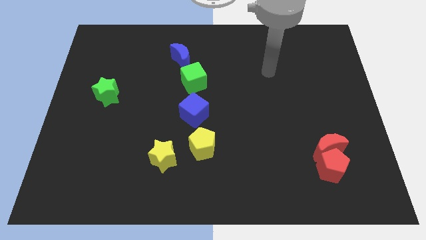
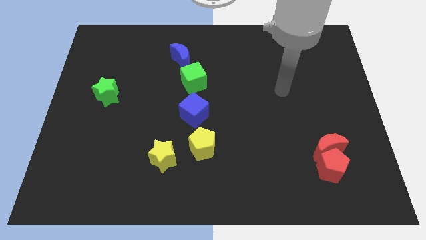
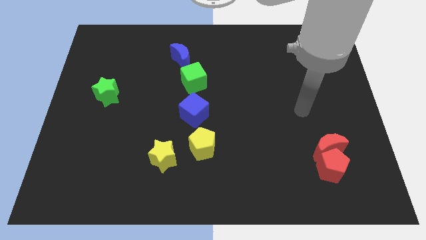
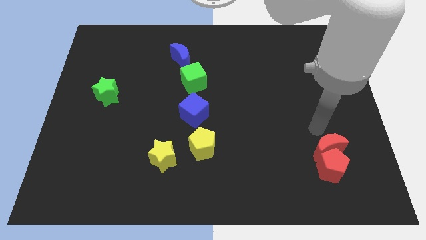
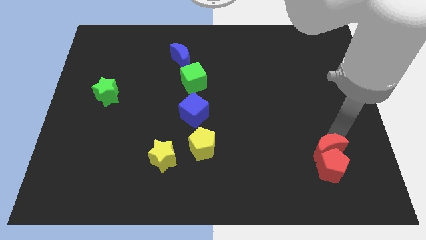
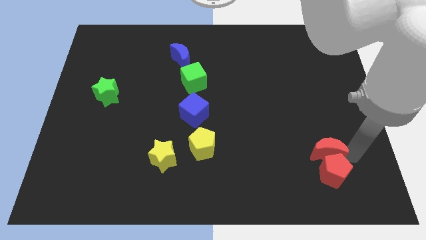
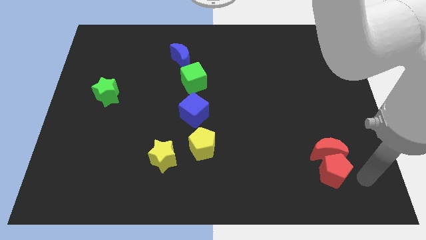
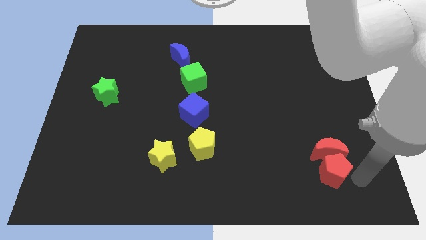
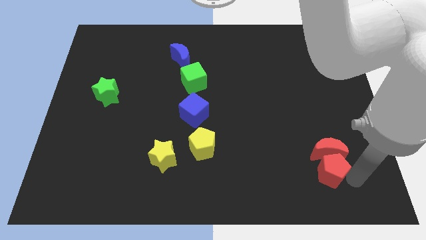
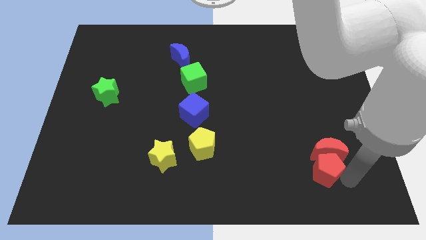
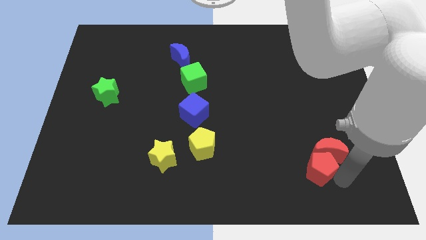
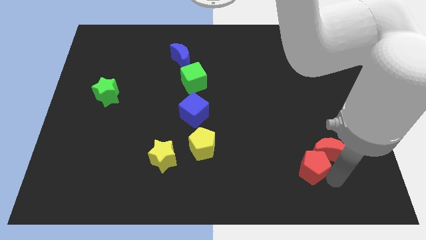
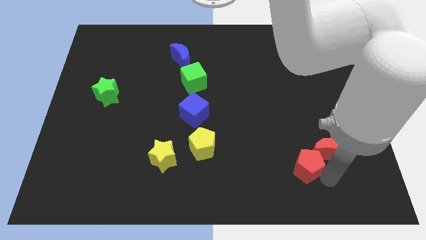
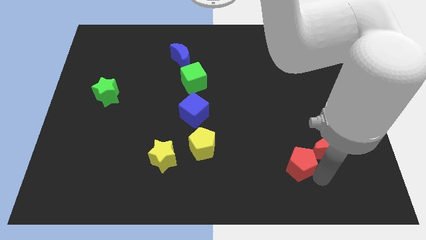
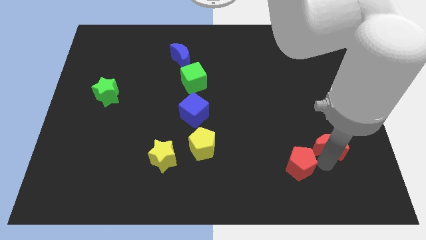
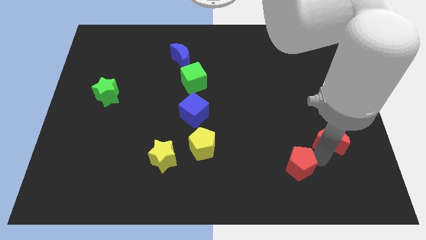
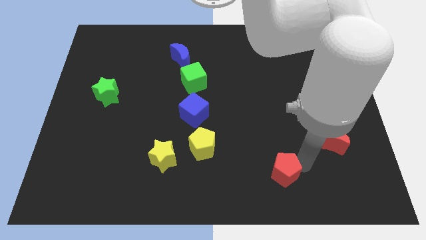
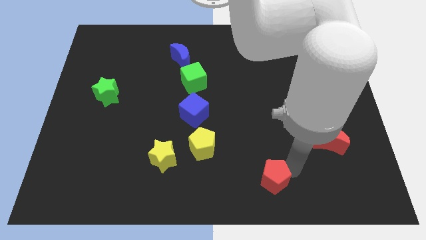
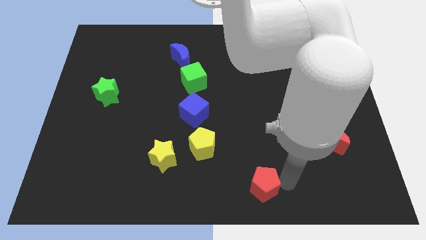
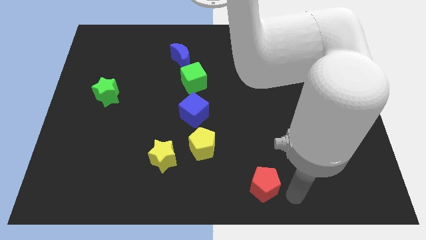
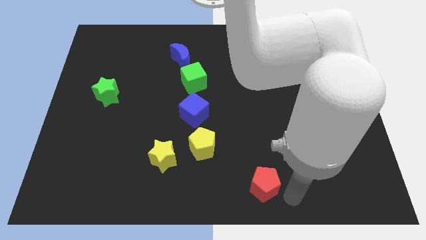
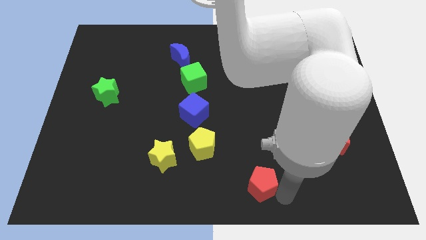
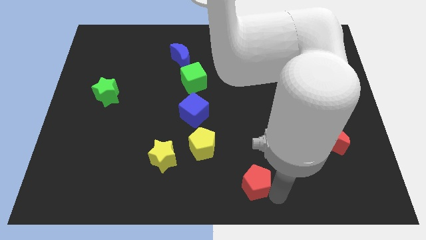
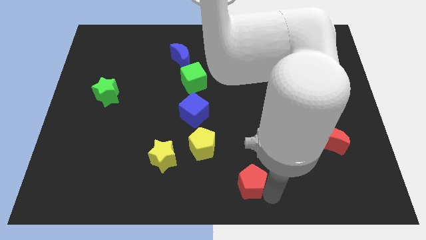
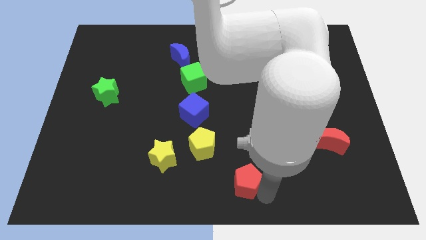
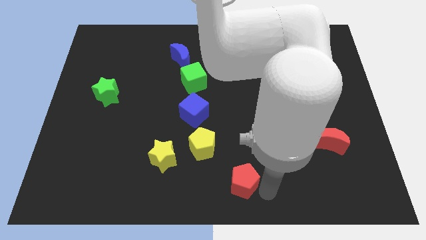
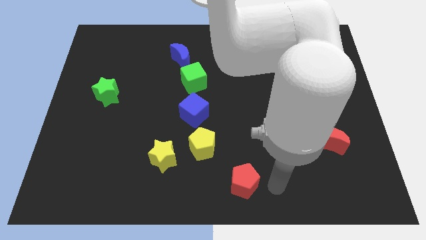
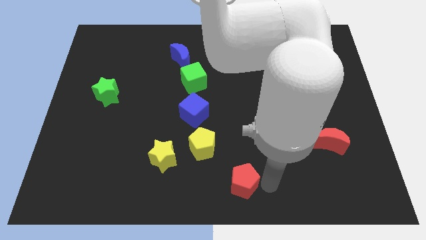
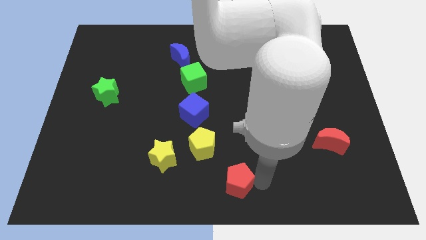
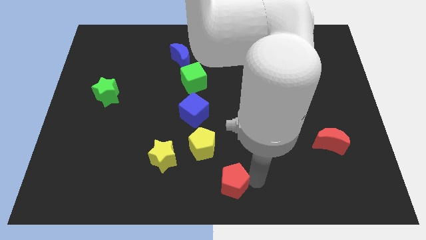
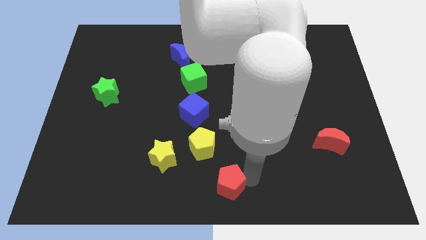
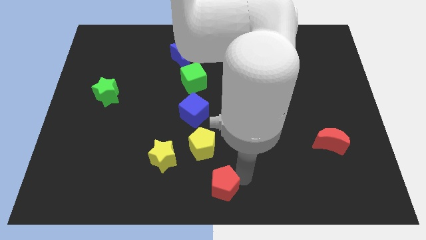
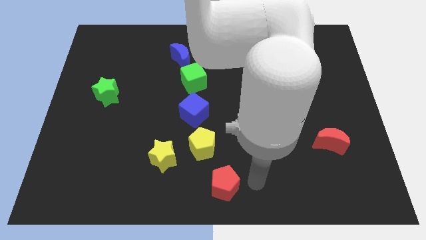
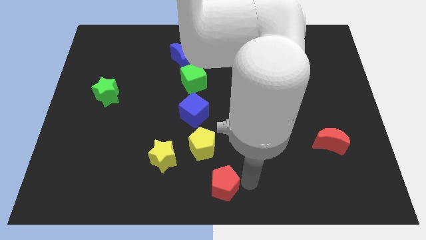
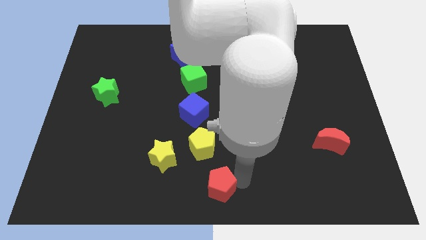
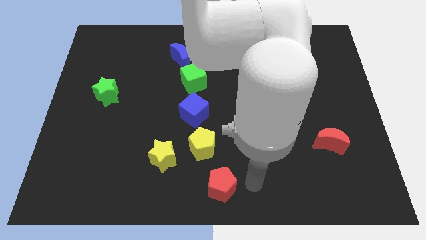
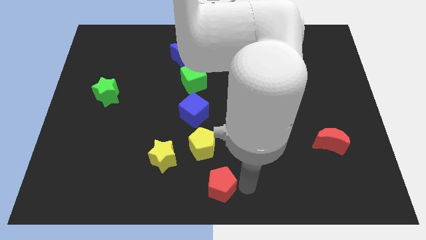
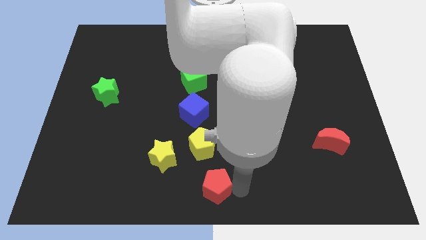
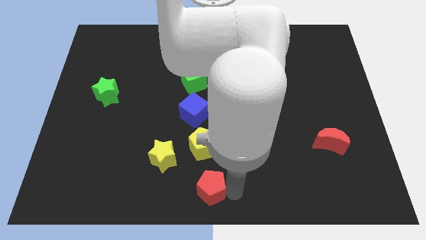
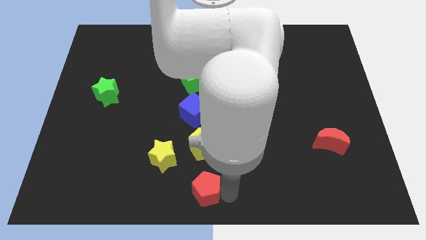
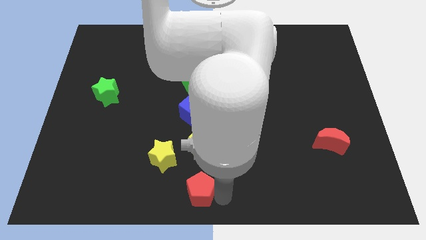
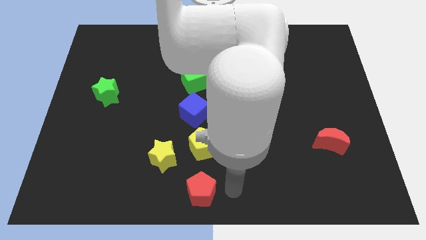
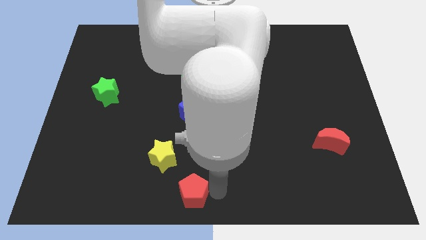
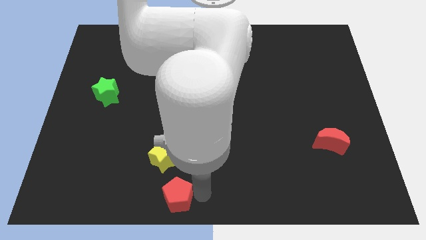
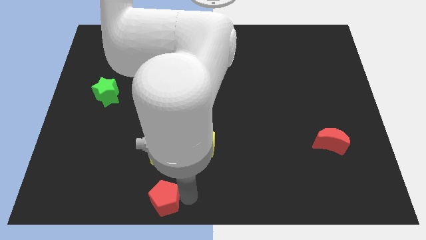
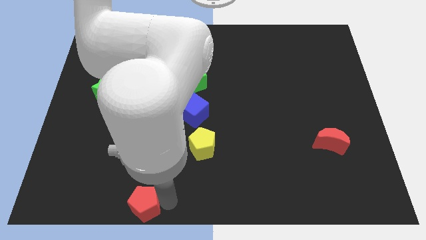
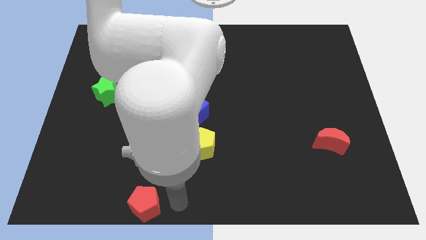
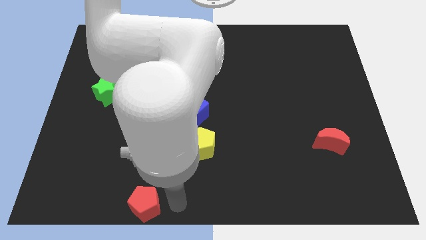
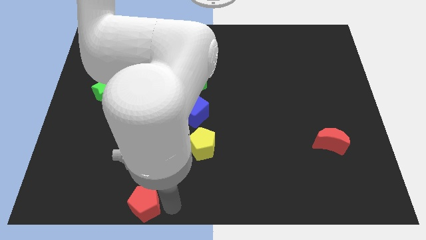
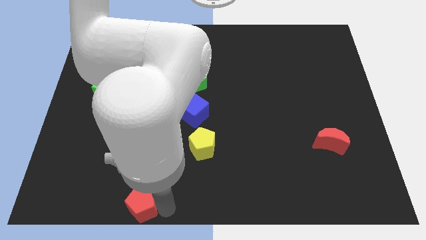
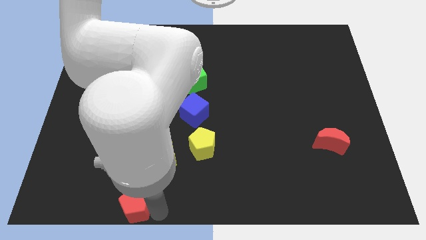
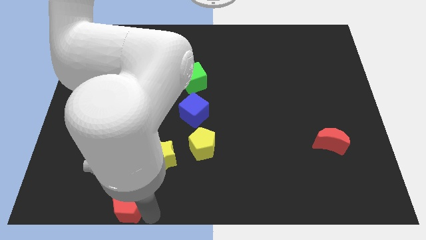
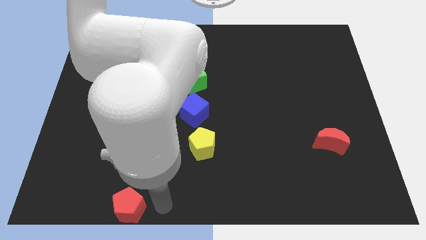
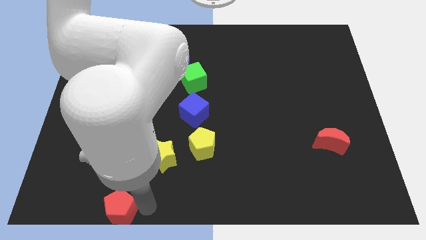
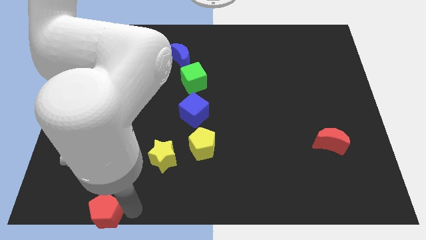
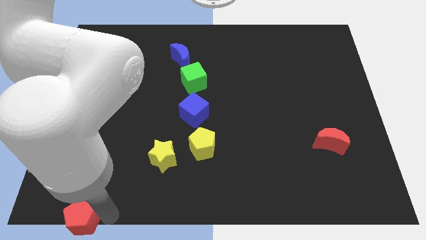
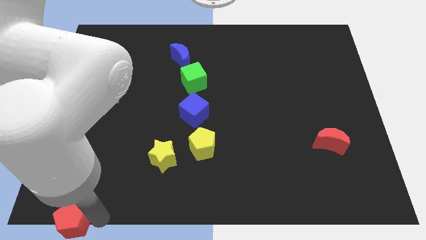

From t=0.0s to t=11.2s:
push the red pentagon to the bottom left of the board

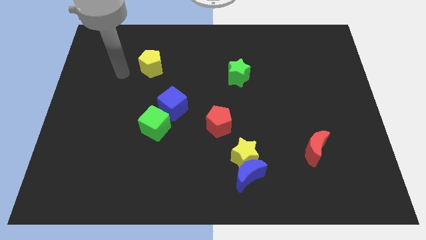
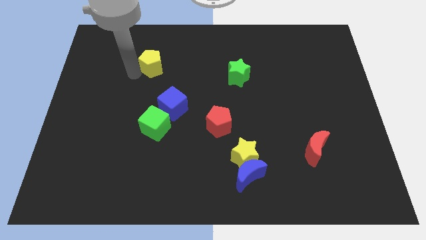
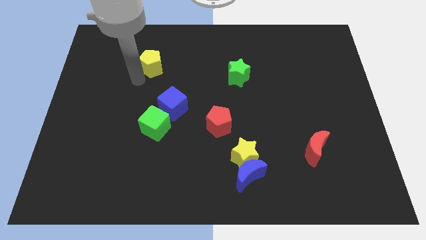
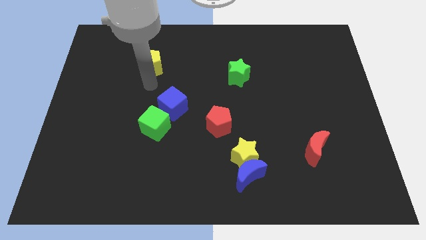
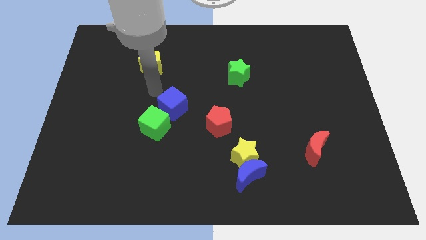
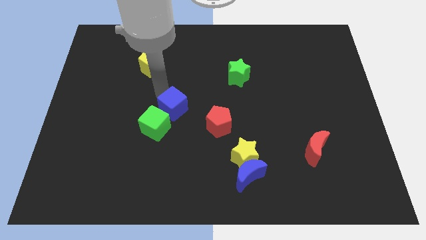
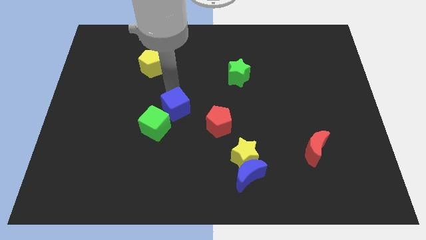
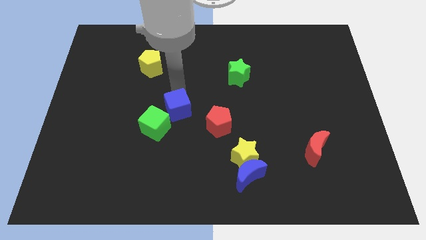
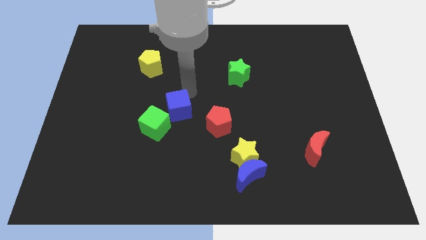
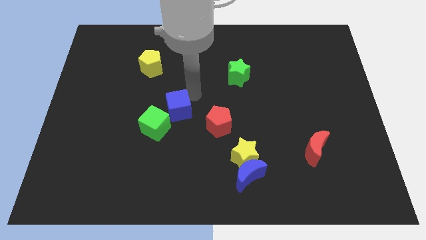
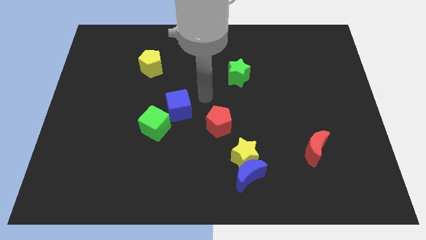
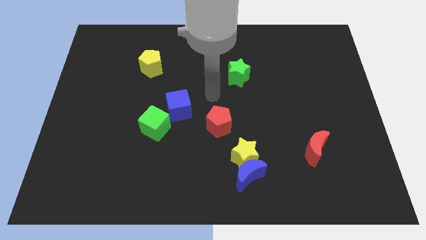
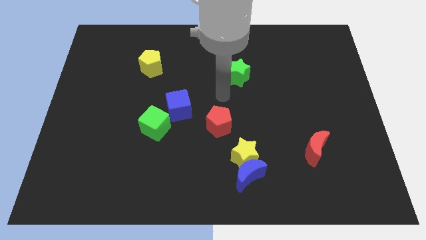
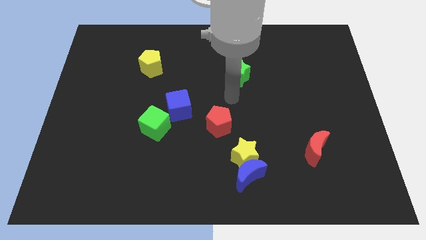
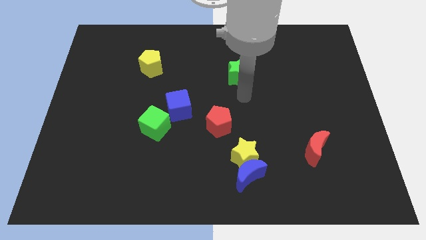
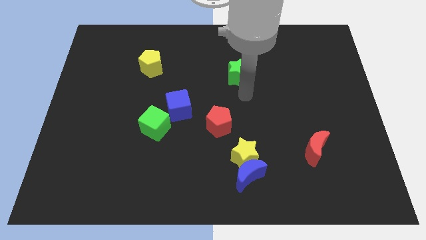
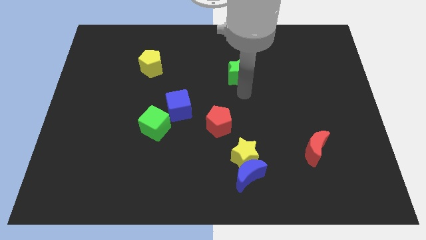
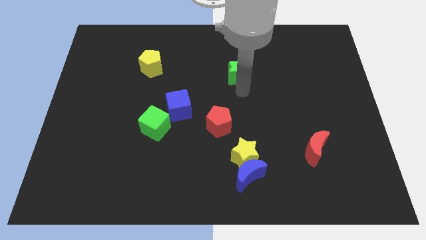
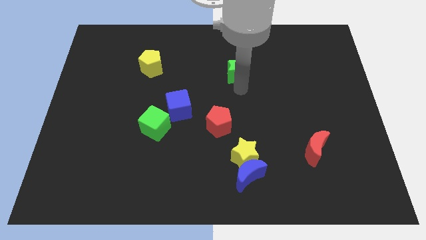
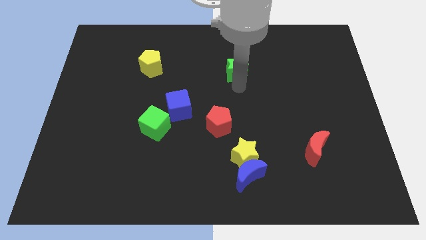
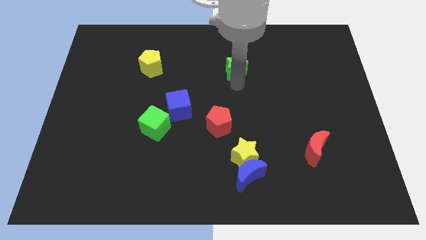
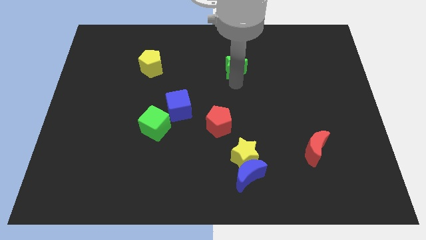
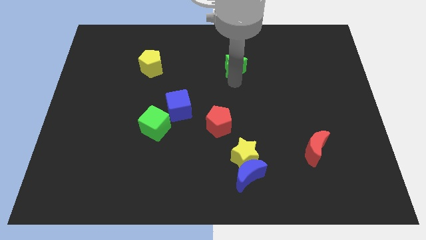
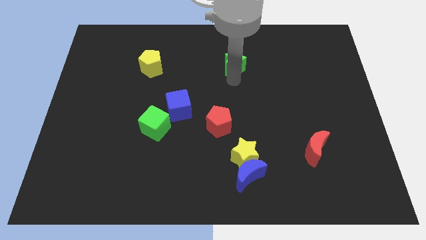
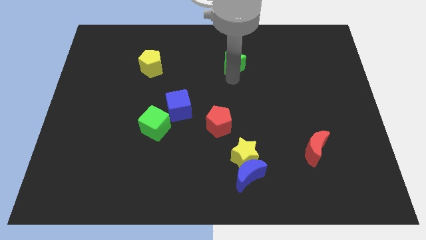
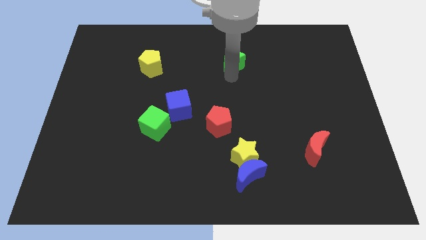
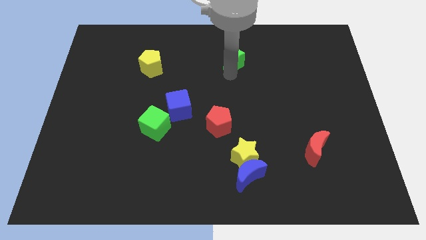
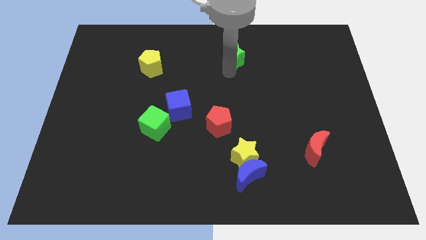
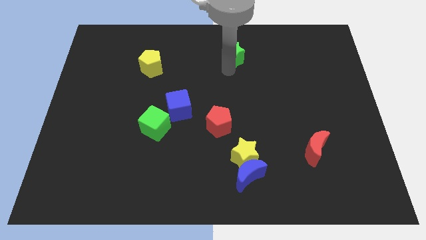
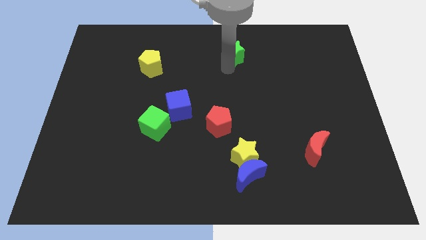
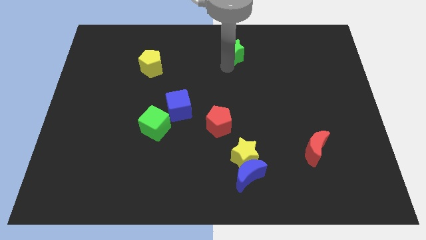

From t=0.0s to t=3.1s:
put the green star to the towards your base
